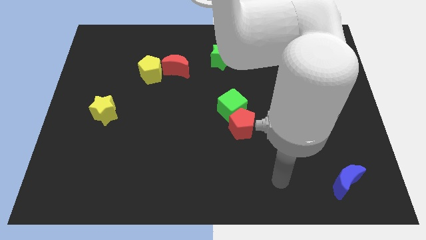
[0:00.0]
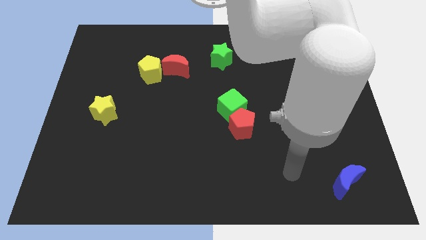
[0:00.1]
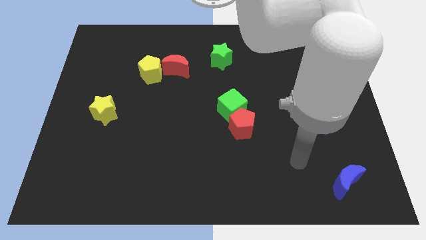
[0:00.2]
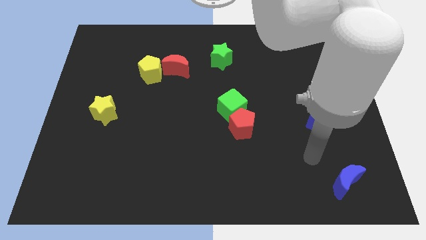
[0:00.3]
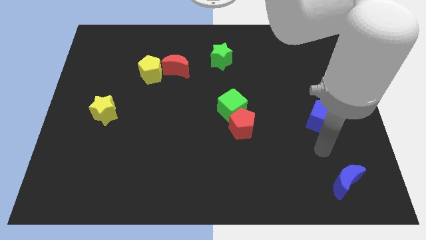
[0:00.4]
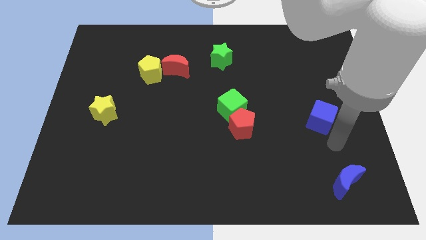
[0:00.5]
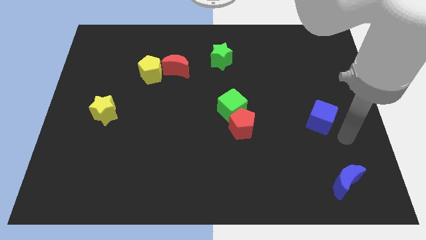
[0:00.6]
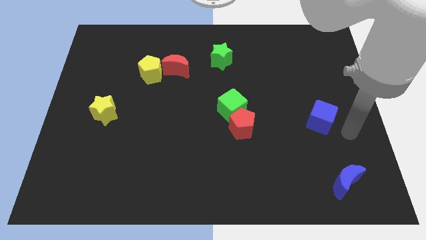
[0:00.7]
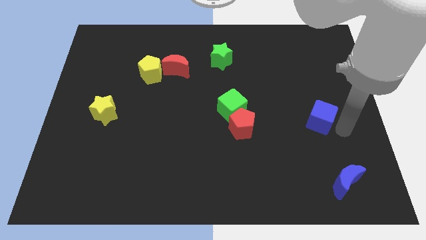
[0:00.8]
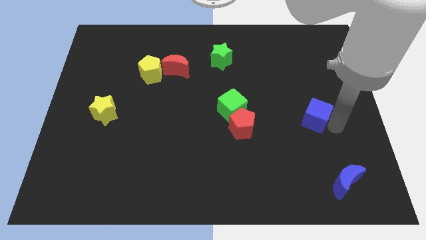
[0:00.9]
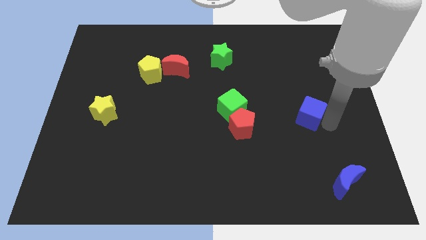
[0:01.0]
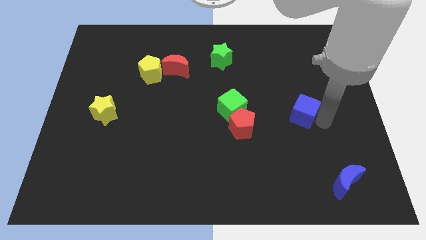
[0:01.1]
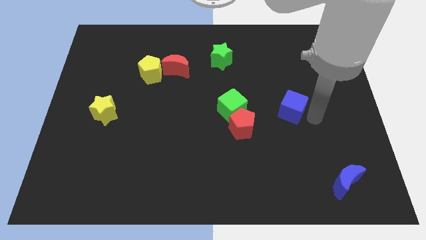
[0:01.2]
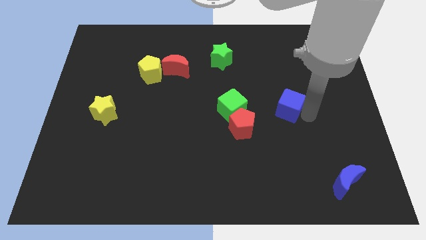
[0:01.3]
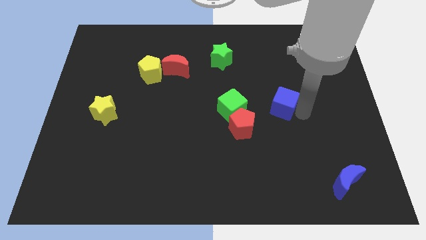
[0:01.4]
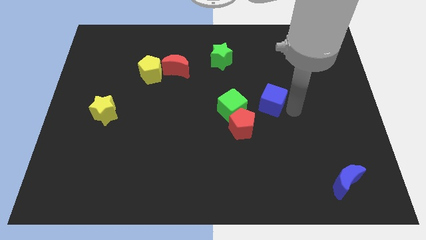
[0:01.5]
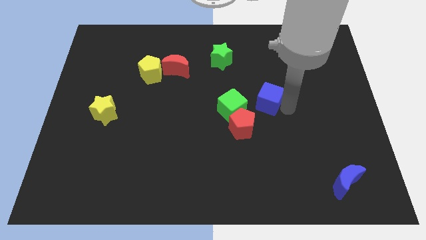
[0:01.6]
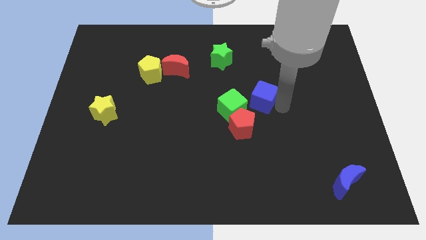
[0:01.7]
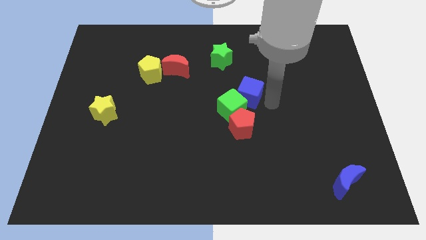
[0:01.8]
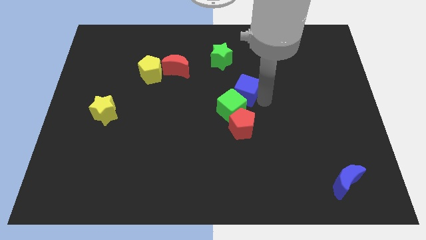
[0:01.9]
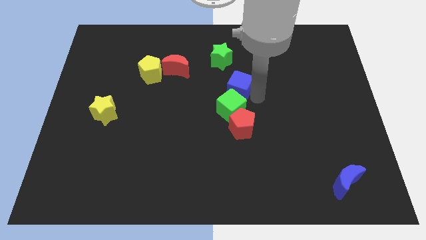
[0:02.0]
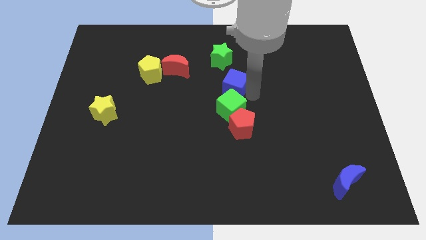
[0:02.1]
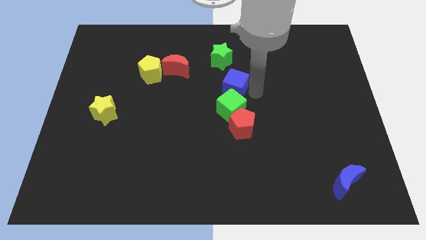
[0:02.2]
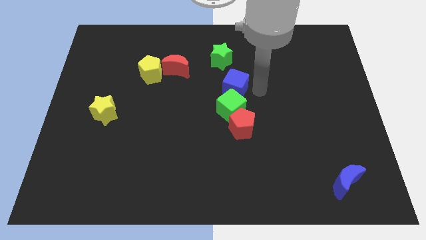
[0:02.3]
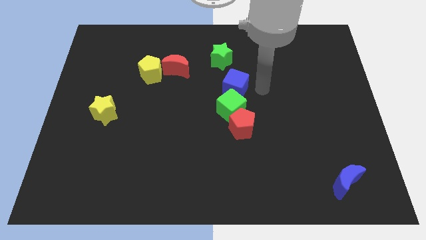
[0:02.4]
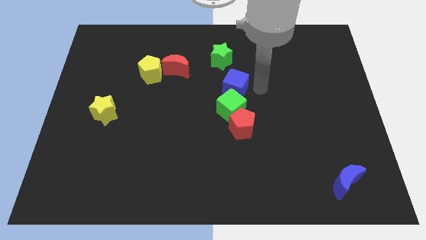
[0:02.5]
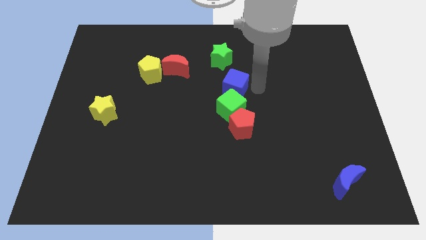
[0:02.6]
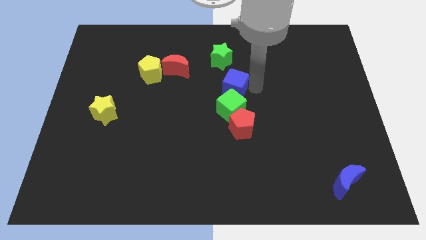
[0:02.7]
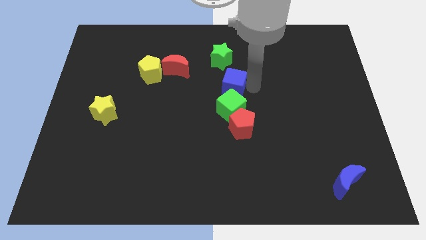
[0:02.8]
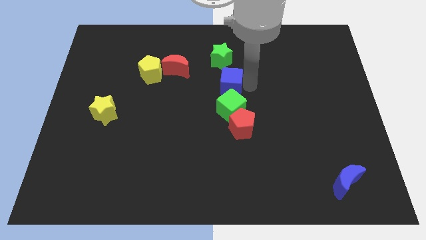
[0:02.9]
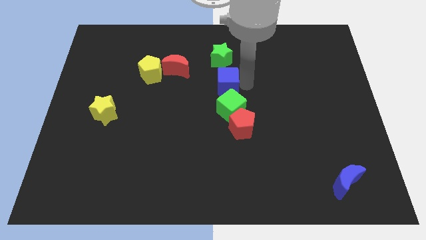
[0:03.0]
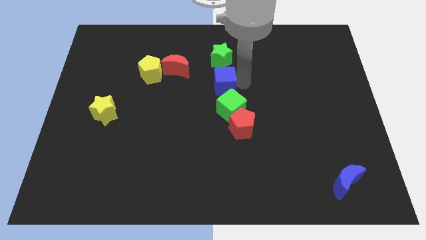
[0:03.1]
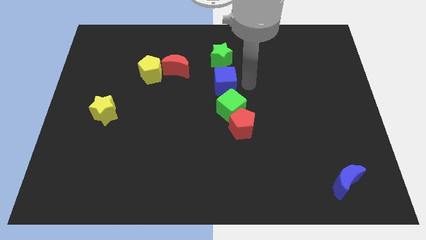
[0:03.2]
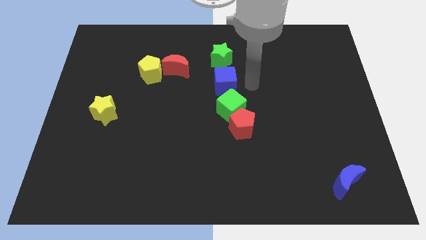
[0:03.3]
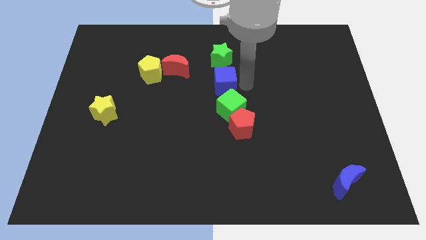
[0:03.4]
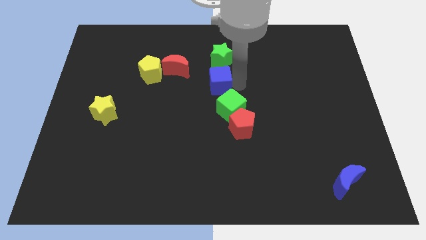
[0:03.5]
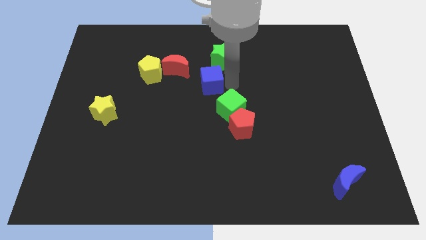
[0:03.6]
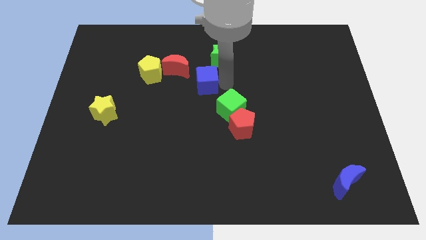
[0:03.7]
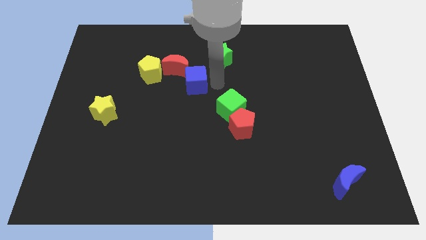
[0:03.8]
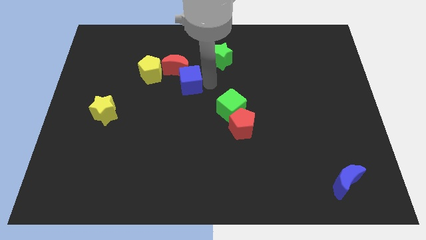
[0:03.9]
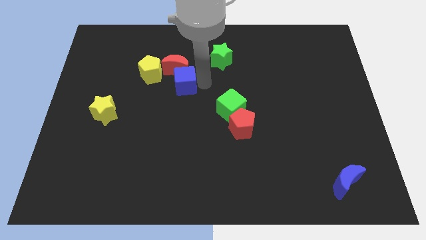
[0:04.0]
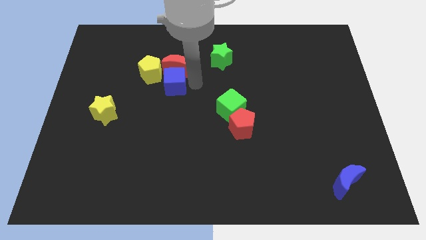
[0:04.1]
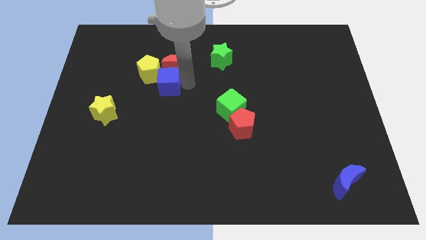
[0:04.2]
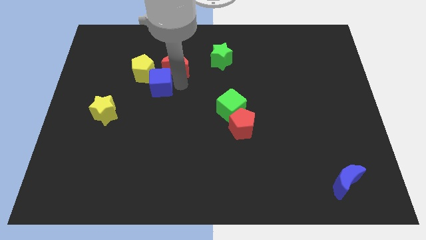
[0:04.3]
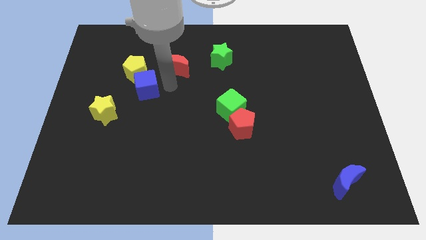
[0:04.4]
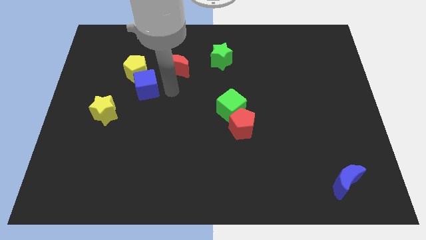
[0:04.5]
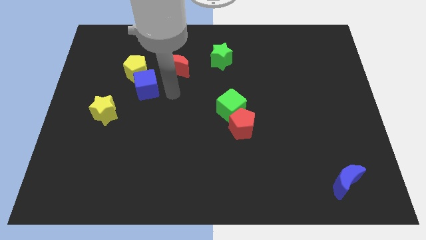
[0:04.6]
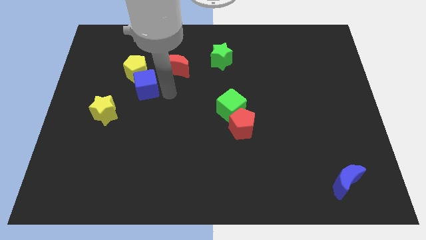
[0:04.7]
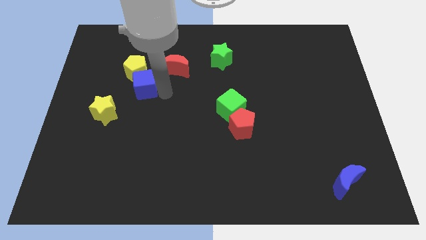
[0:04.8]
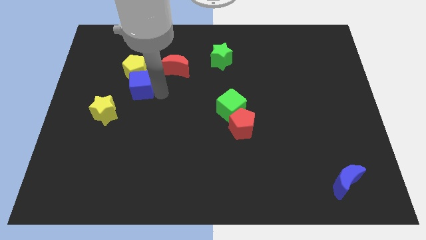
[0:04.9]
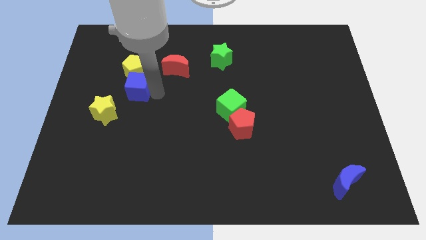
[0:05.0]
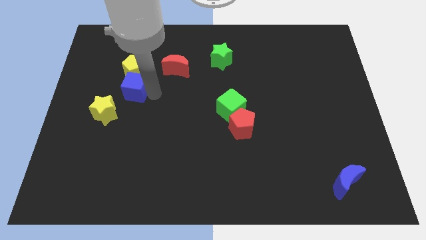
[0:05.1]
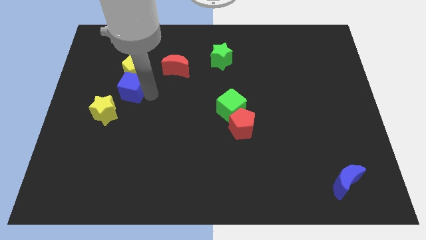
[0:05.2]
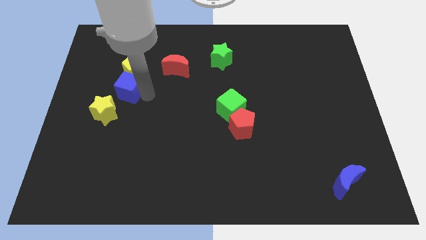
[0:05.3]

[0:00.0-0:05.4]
slide the blue cube above the yellow star

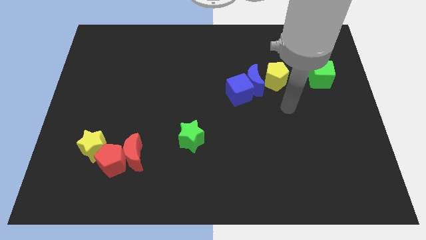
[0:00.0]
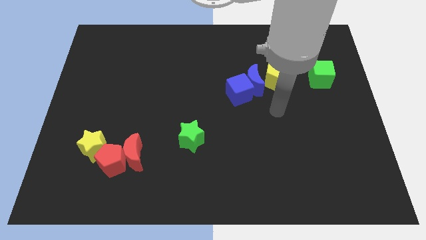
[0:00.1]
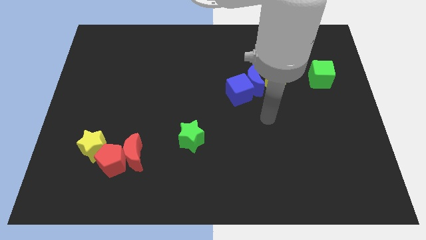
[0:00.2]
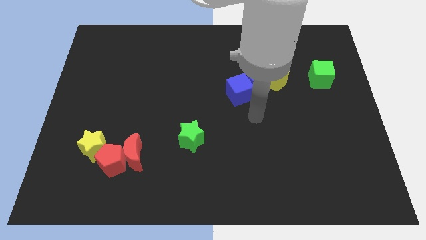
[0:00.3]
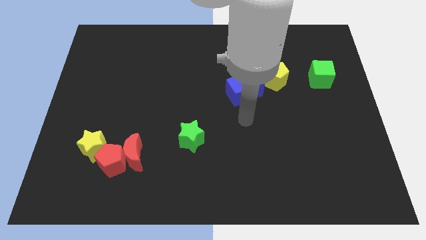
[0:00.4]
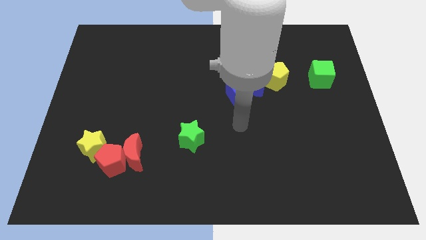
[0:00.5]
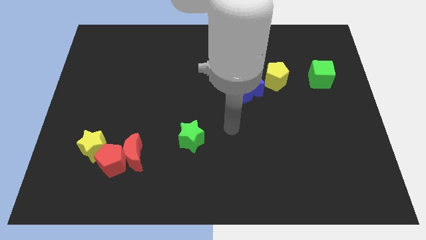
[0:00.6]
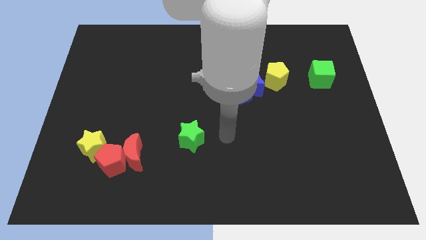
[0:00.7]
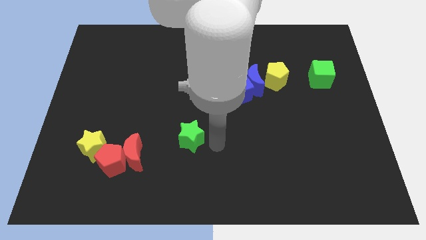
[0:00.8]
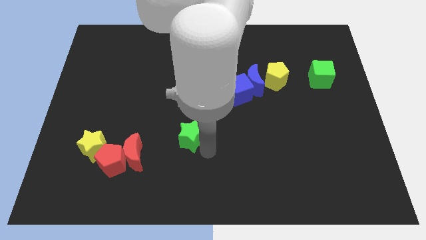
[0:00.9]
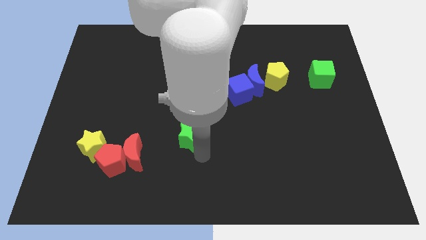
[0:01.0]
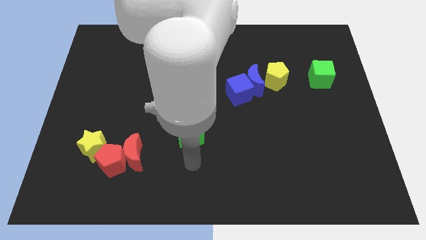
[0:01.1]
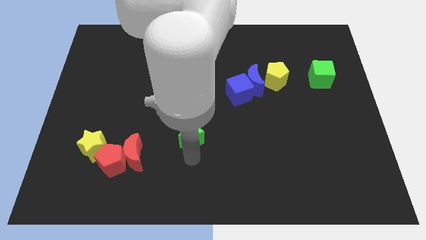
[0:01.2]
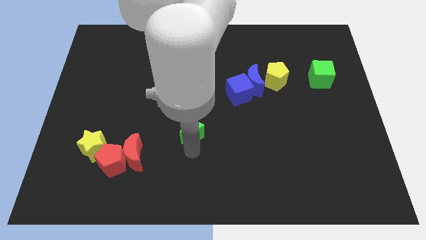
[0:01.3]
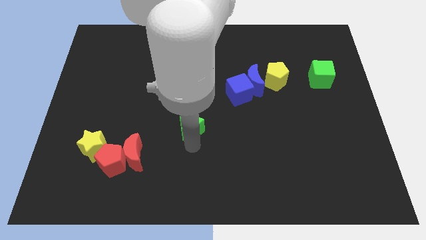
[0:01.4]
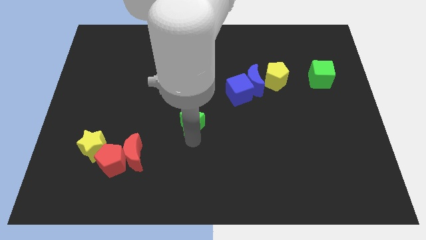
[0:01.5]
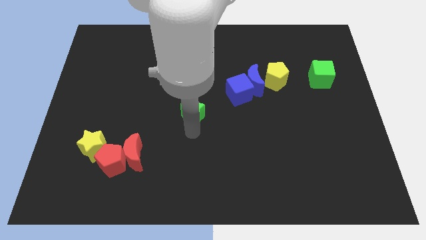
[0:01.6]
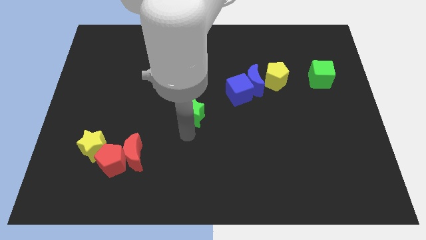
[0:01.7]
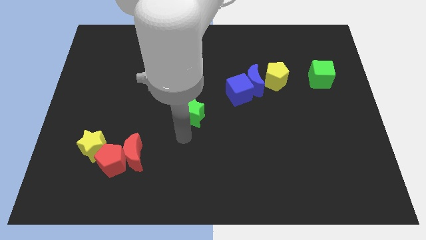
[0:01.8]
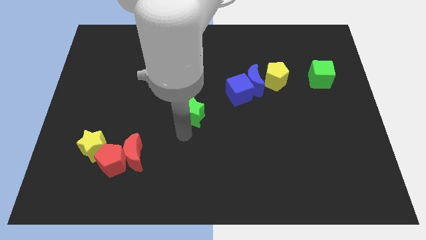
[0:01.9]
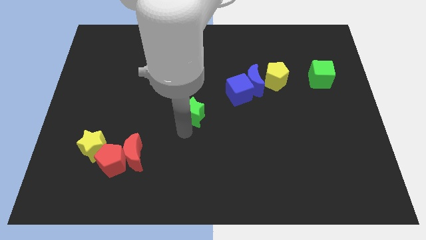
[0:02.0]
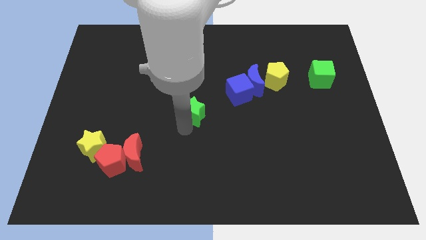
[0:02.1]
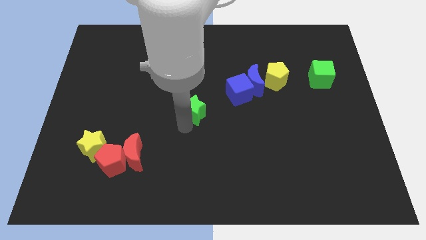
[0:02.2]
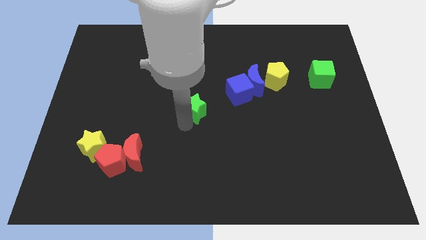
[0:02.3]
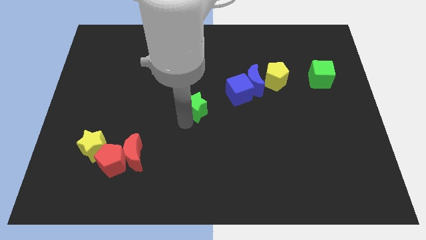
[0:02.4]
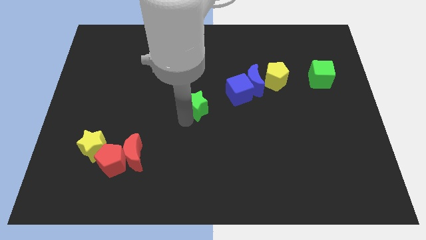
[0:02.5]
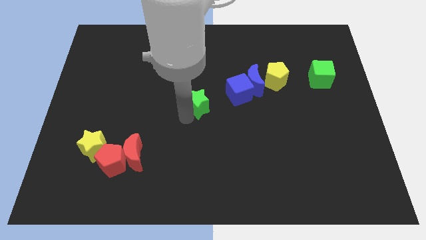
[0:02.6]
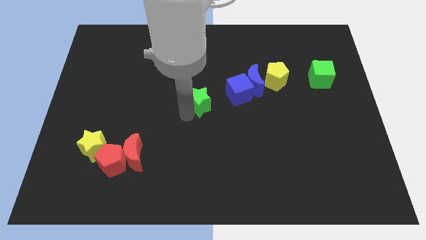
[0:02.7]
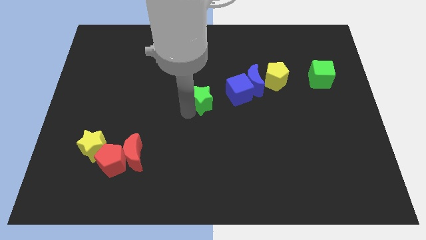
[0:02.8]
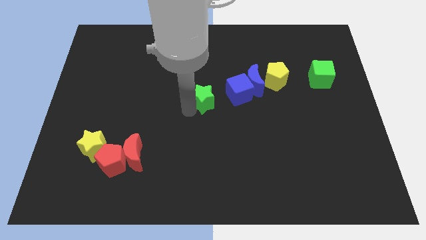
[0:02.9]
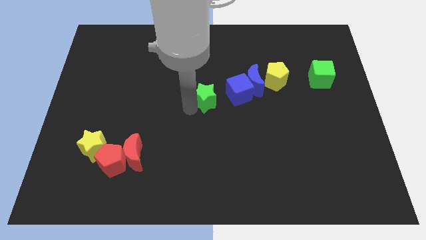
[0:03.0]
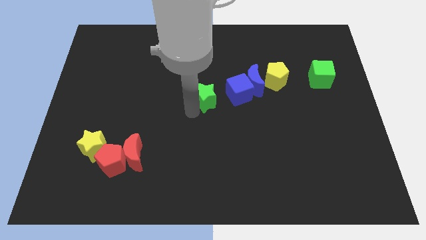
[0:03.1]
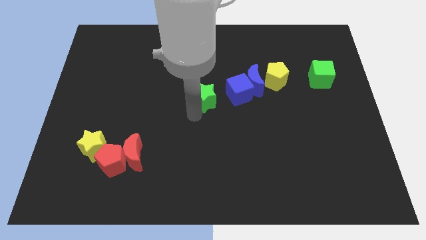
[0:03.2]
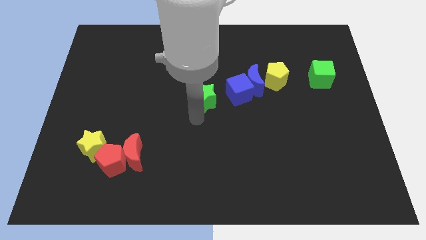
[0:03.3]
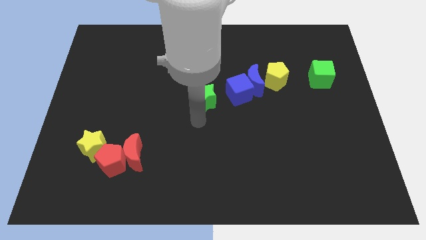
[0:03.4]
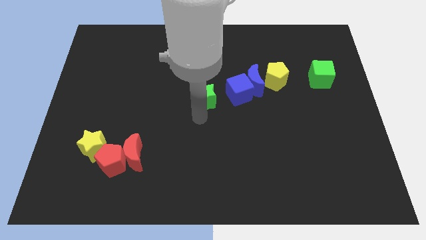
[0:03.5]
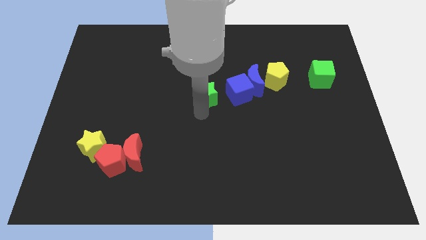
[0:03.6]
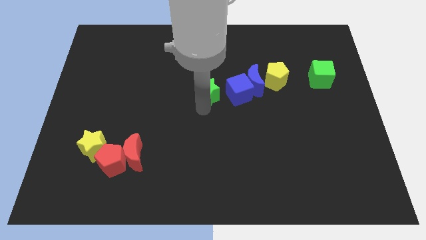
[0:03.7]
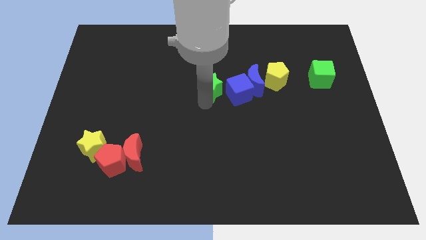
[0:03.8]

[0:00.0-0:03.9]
move the green star to the top left side of the blue cube
